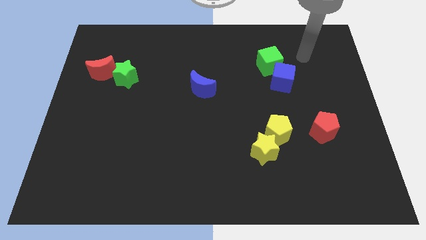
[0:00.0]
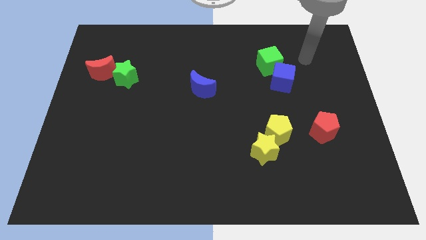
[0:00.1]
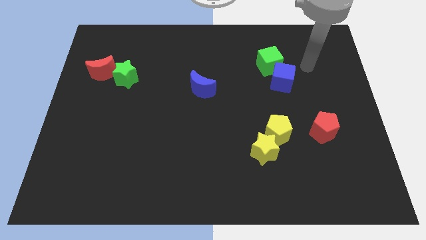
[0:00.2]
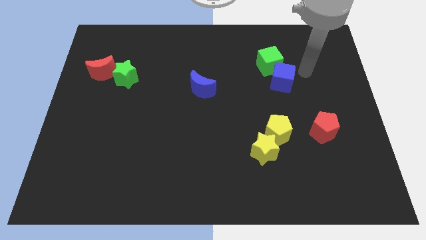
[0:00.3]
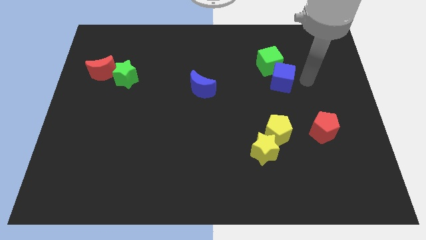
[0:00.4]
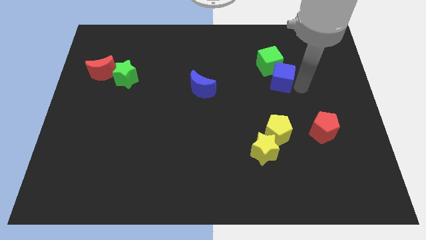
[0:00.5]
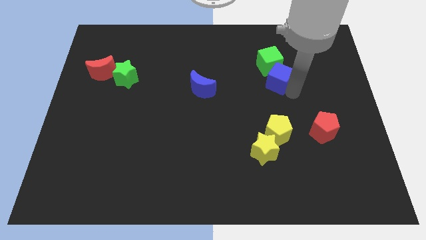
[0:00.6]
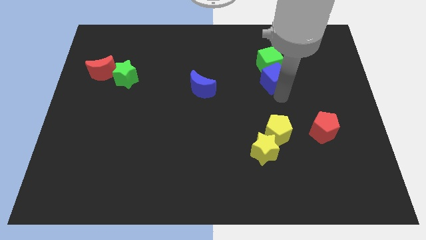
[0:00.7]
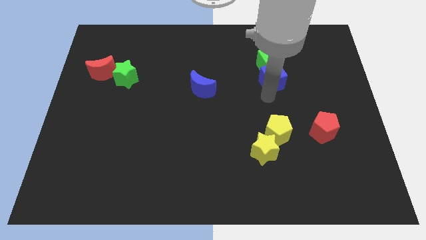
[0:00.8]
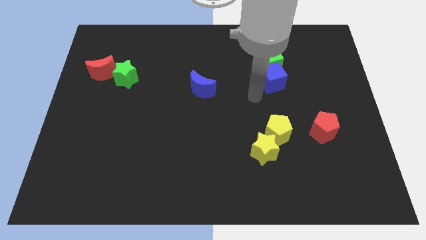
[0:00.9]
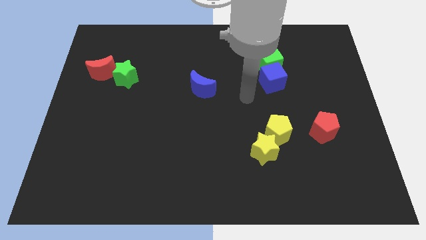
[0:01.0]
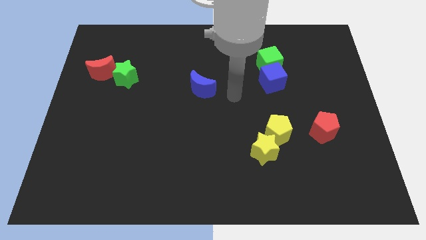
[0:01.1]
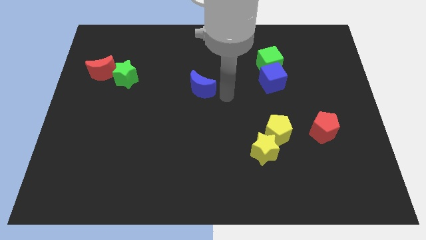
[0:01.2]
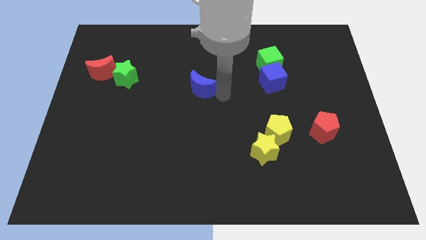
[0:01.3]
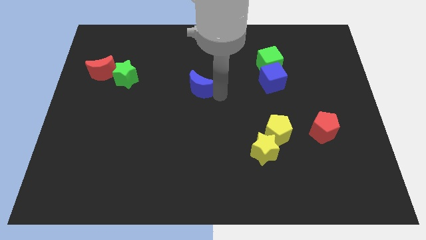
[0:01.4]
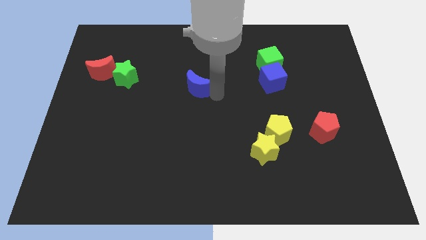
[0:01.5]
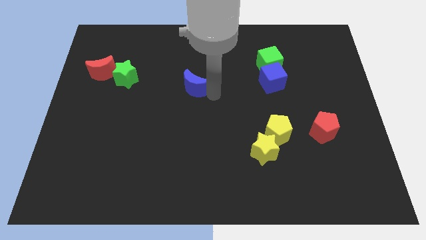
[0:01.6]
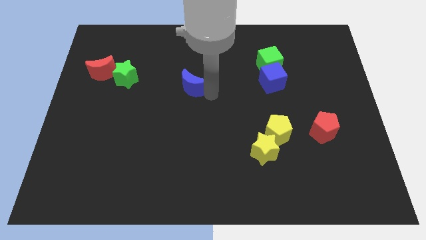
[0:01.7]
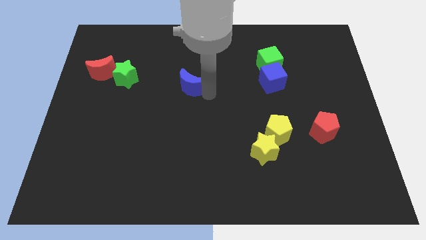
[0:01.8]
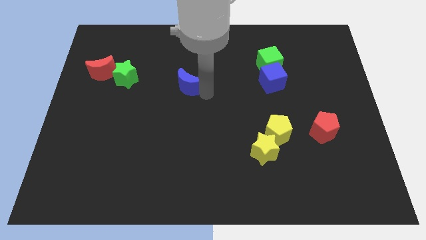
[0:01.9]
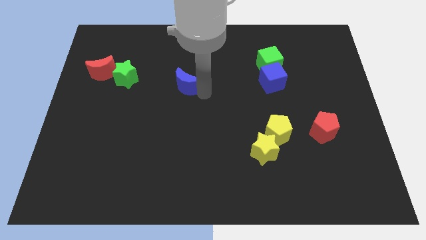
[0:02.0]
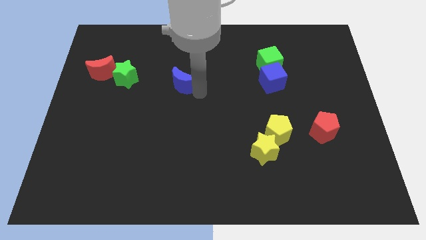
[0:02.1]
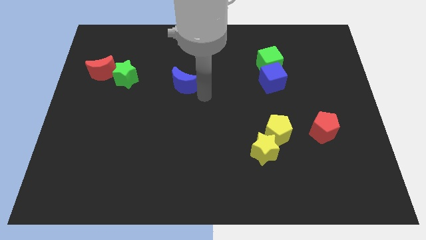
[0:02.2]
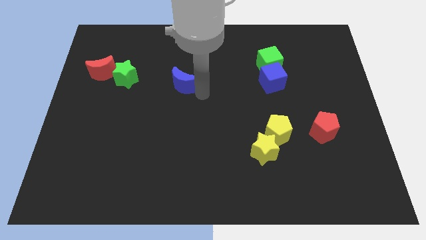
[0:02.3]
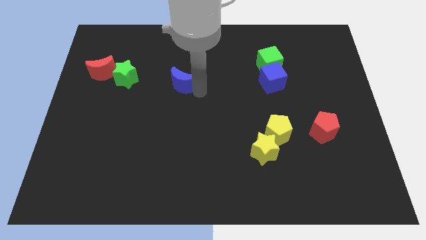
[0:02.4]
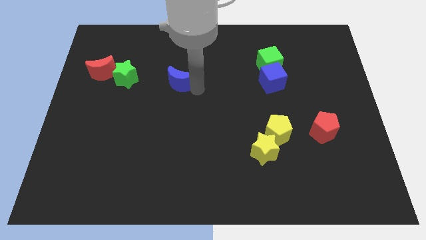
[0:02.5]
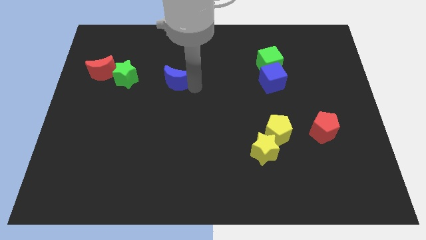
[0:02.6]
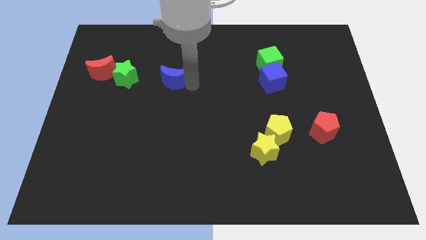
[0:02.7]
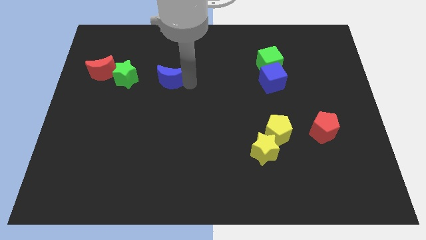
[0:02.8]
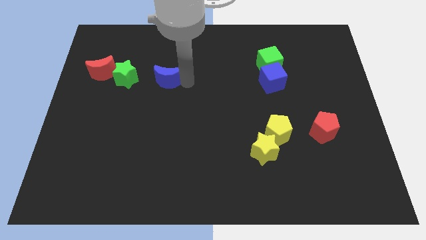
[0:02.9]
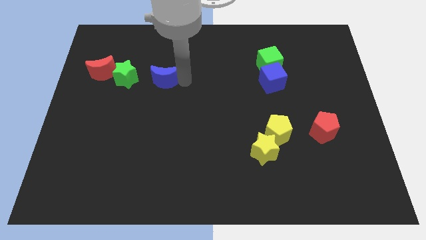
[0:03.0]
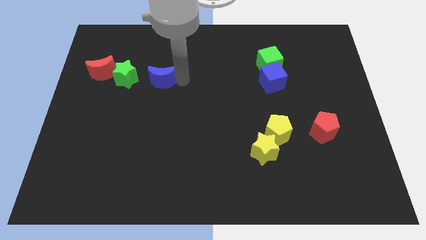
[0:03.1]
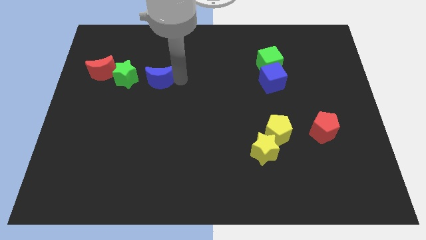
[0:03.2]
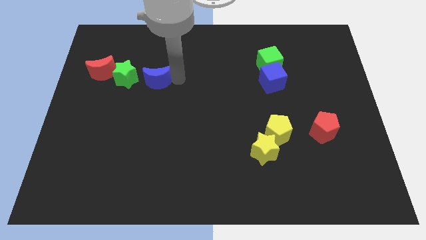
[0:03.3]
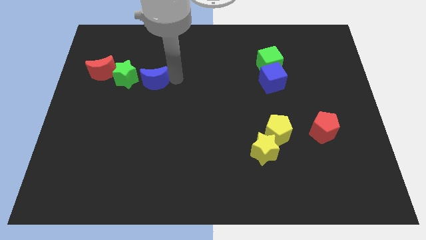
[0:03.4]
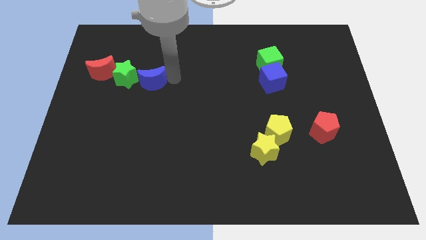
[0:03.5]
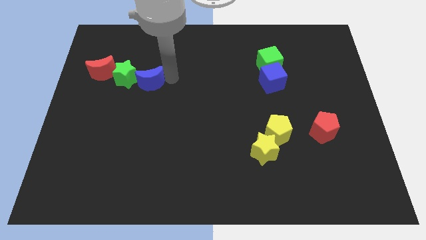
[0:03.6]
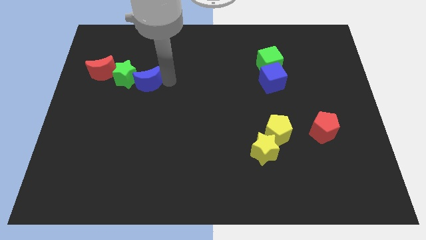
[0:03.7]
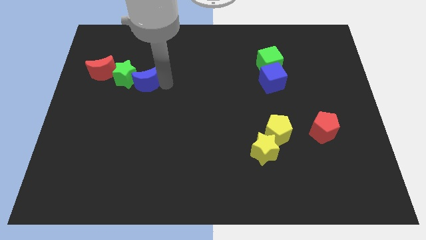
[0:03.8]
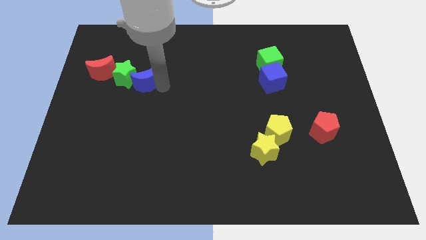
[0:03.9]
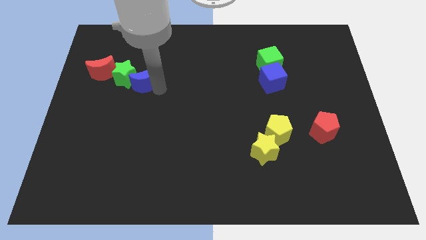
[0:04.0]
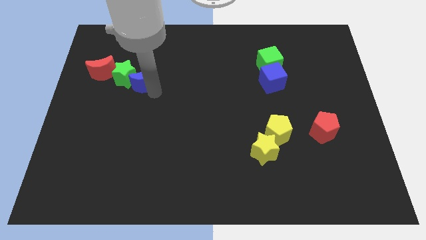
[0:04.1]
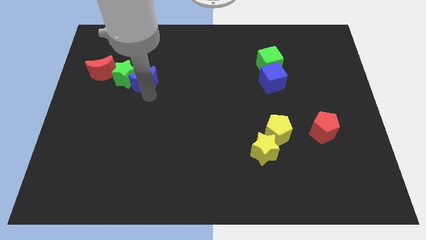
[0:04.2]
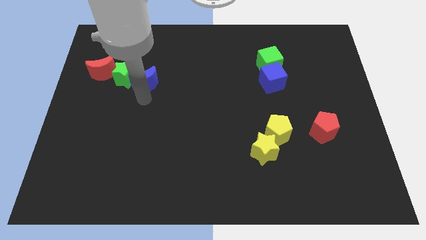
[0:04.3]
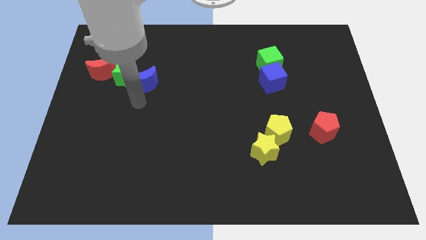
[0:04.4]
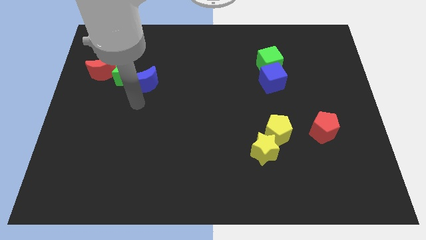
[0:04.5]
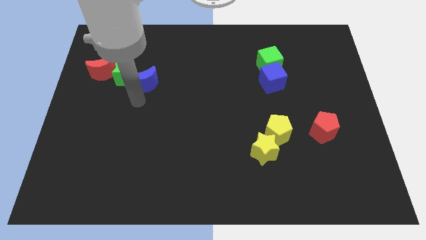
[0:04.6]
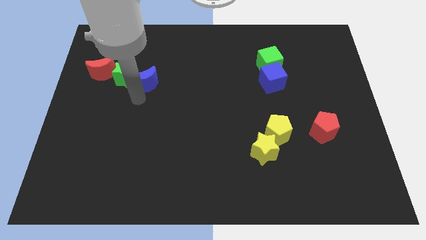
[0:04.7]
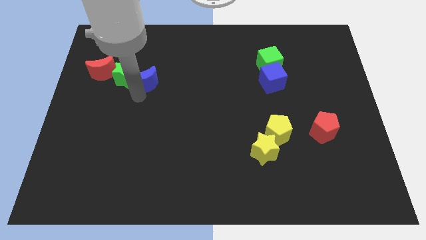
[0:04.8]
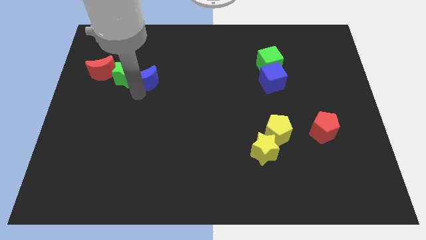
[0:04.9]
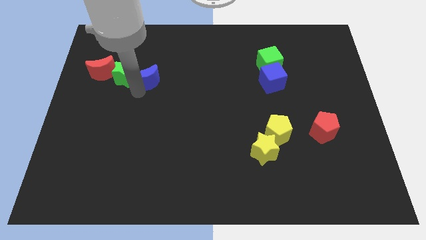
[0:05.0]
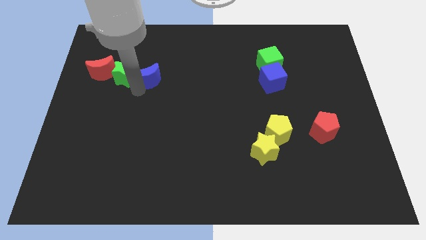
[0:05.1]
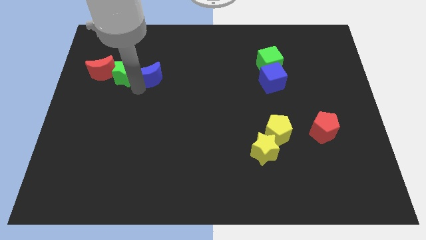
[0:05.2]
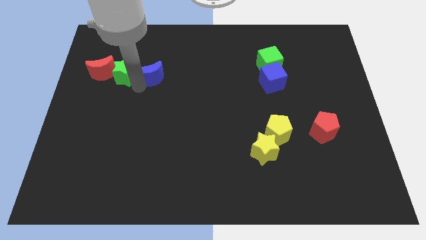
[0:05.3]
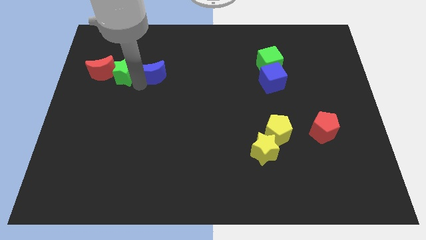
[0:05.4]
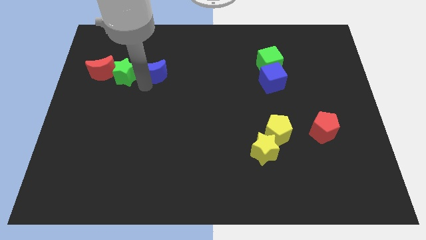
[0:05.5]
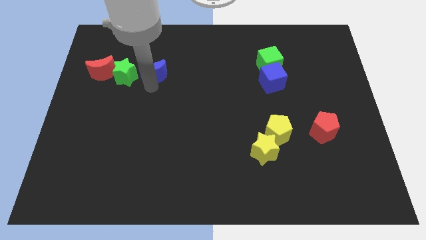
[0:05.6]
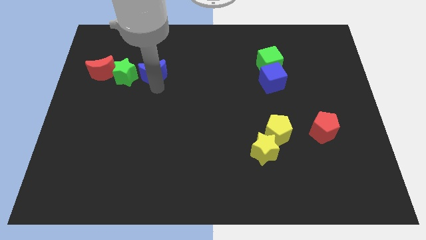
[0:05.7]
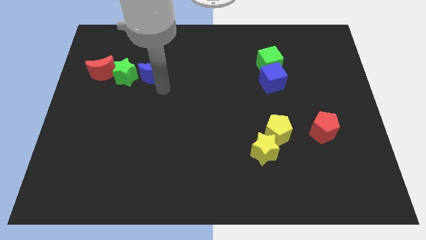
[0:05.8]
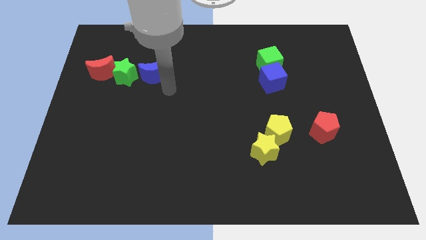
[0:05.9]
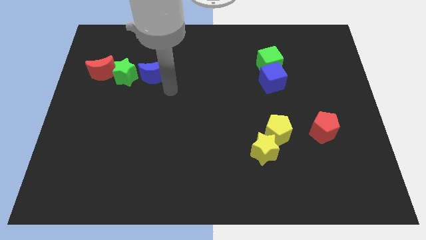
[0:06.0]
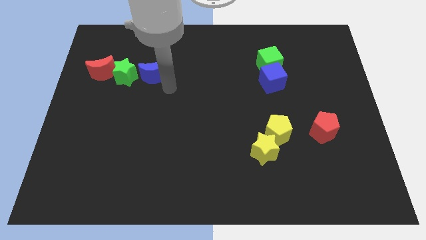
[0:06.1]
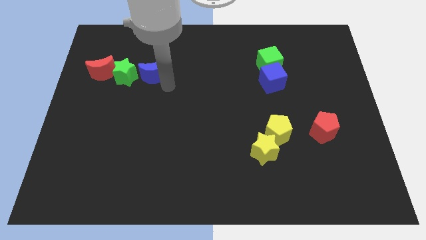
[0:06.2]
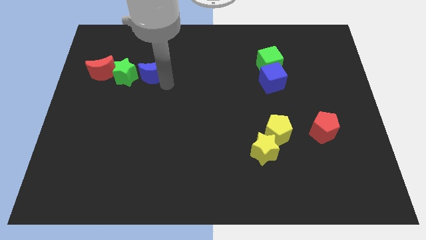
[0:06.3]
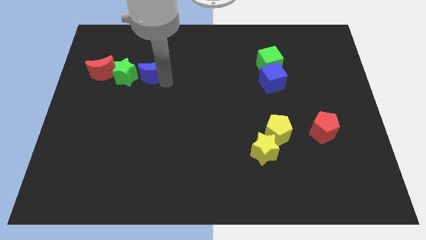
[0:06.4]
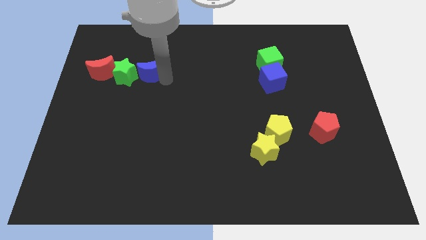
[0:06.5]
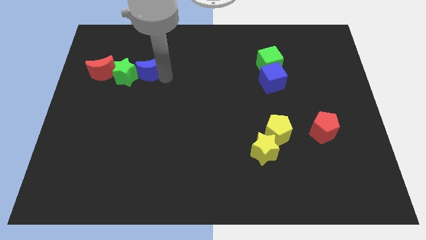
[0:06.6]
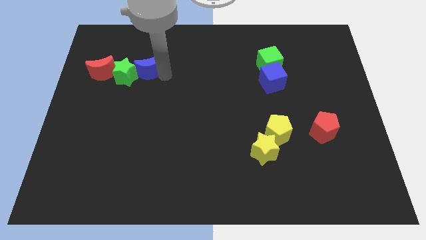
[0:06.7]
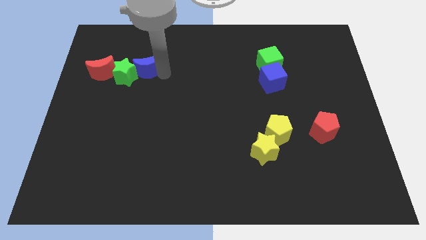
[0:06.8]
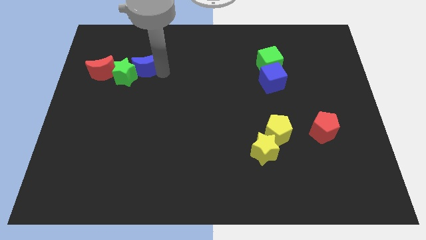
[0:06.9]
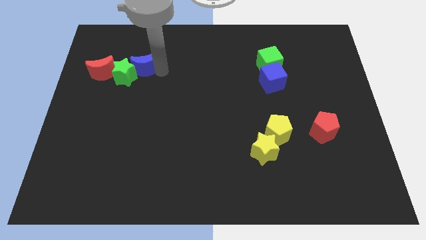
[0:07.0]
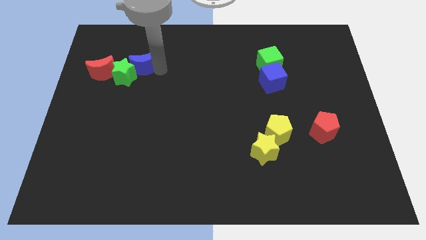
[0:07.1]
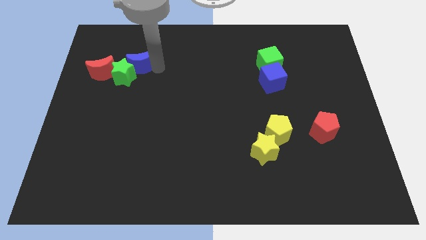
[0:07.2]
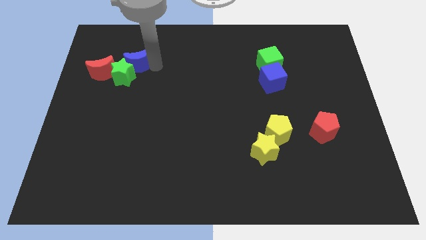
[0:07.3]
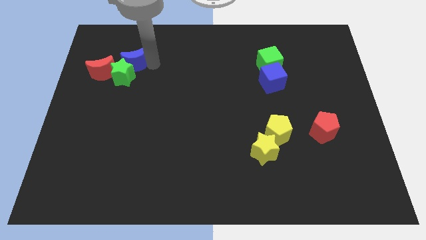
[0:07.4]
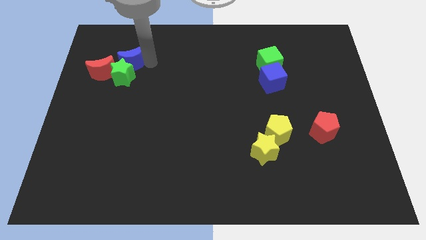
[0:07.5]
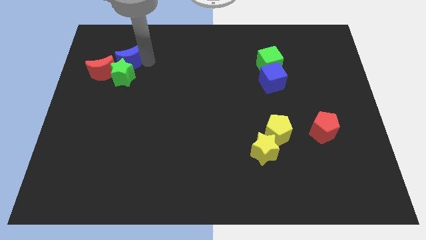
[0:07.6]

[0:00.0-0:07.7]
move the blue moon to the top left side of the green star
